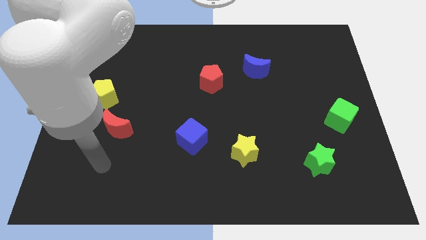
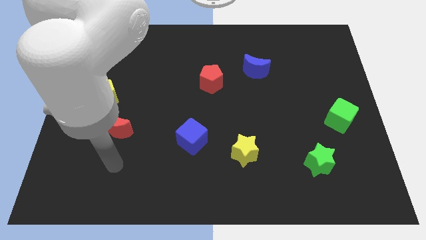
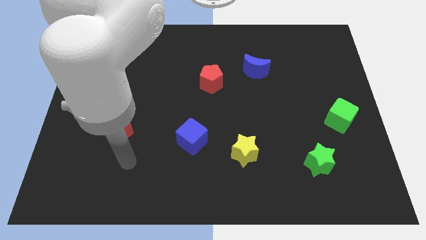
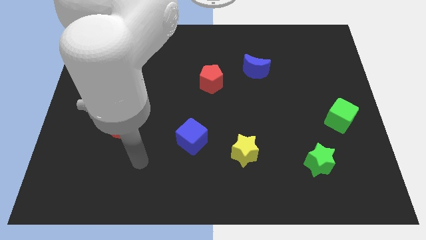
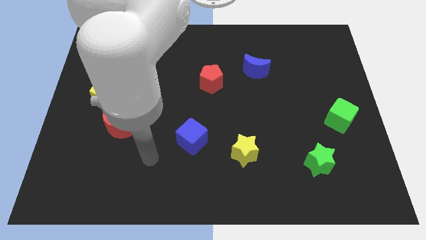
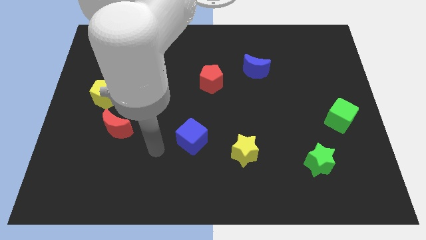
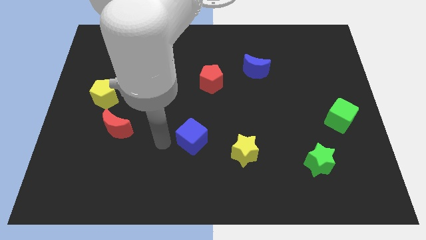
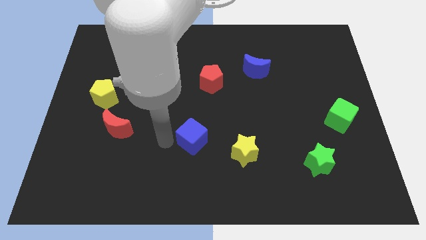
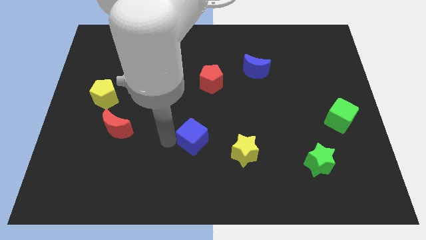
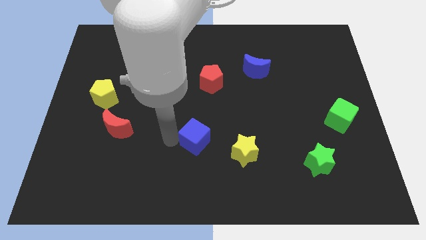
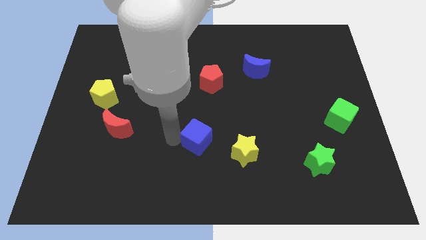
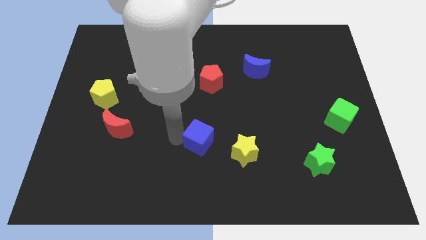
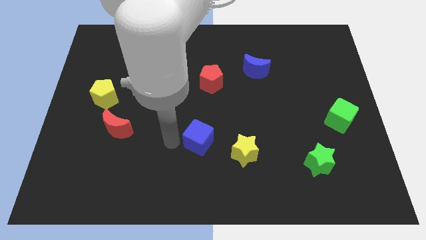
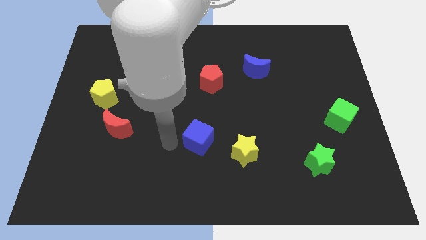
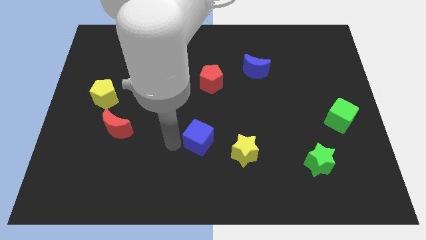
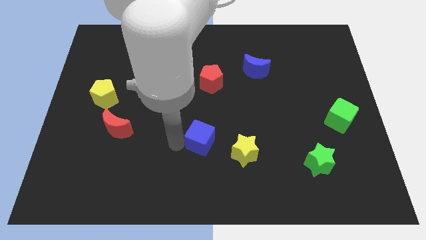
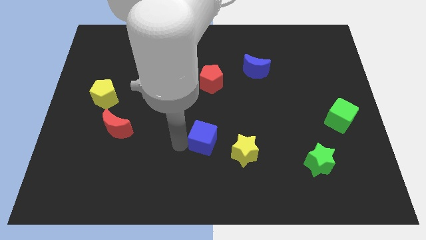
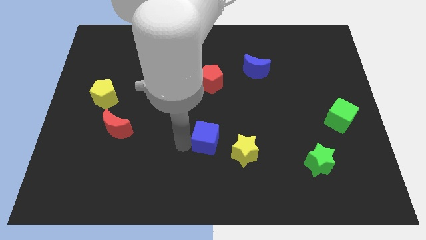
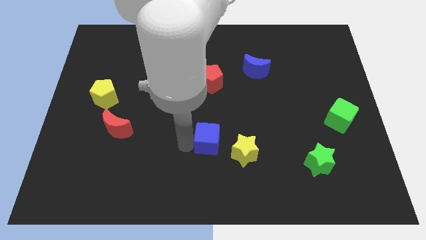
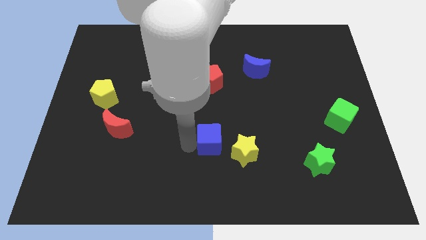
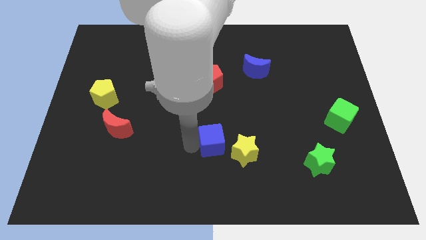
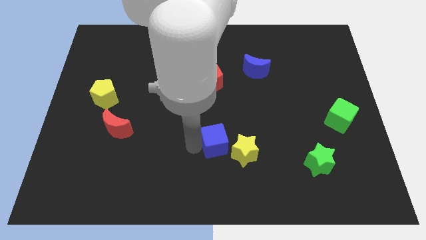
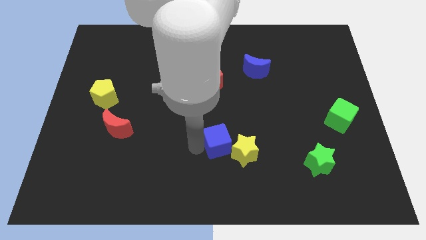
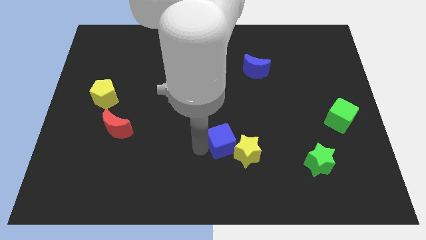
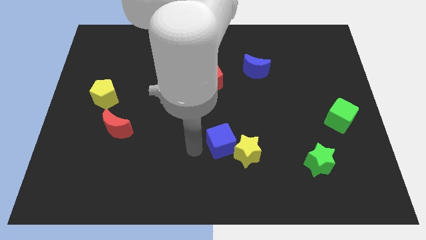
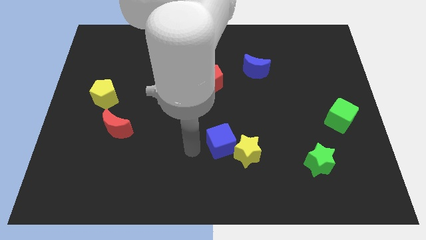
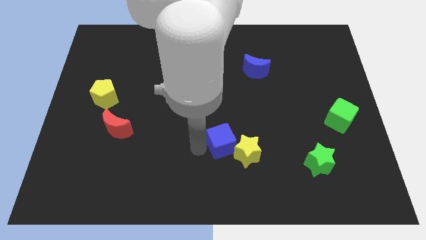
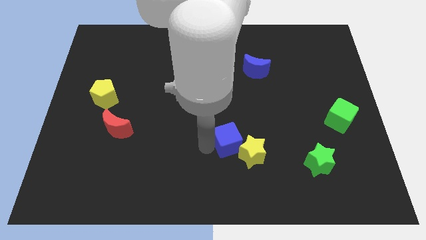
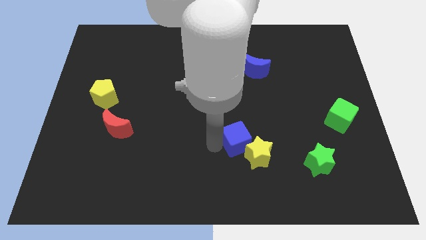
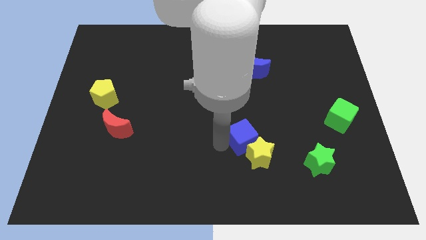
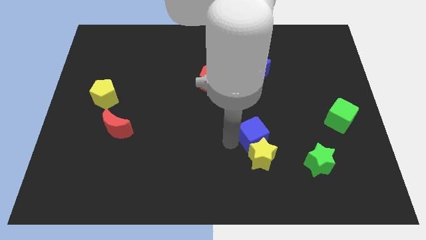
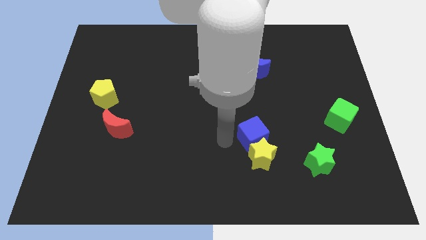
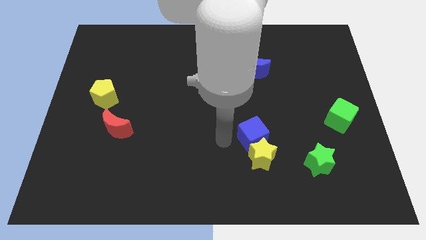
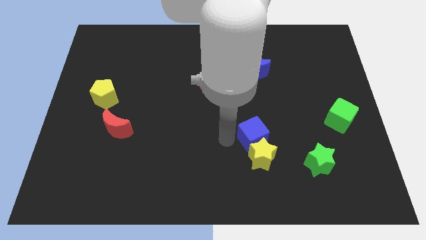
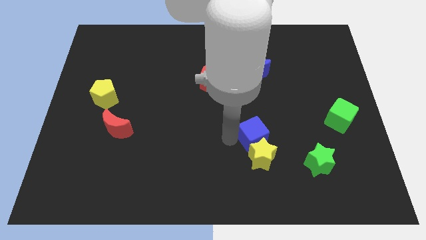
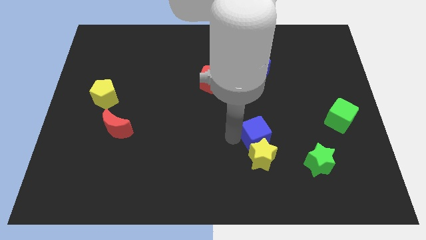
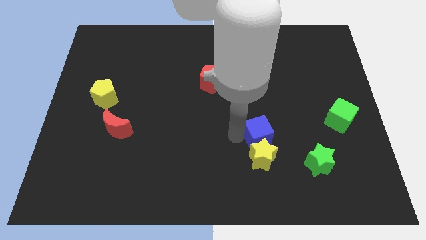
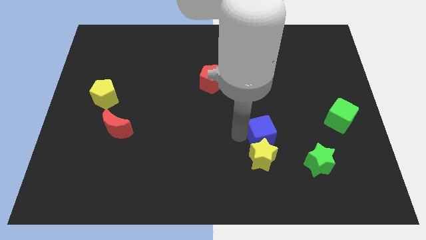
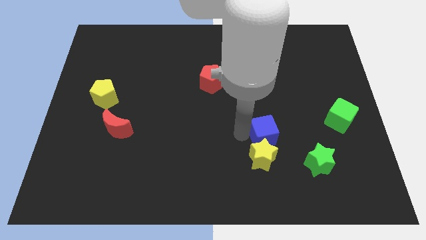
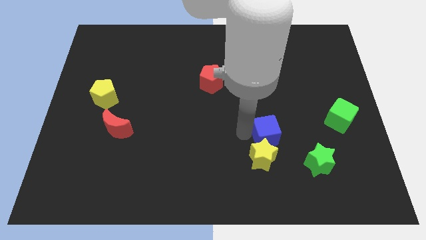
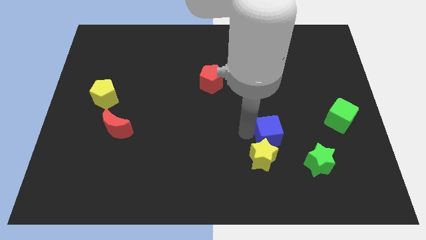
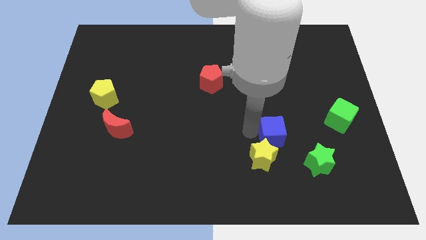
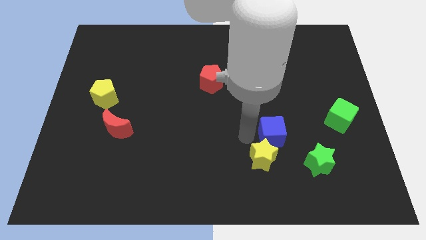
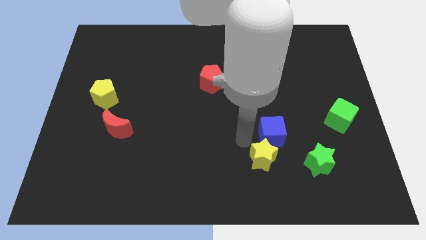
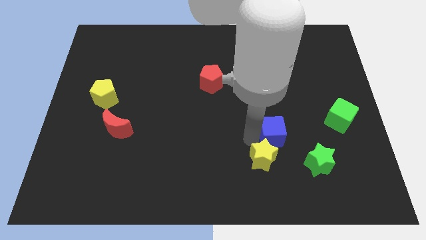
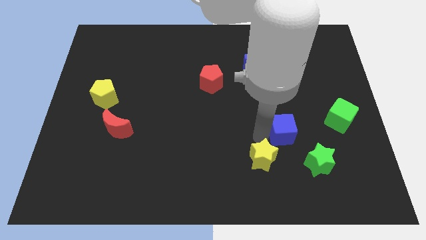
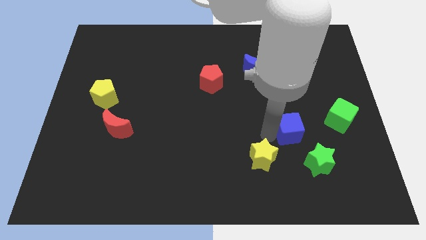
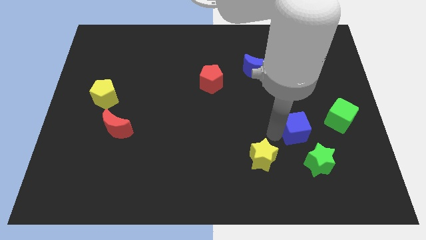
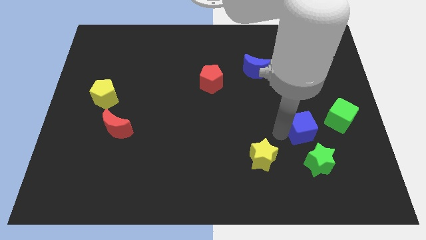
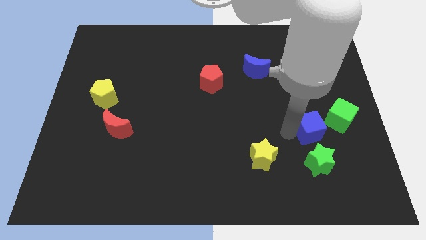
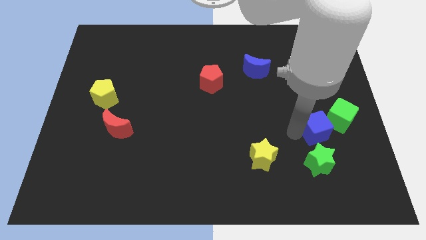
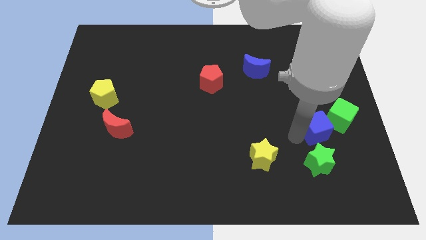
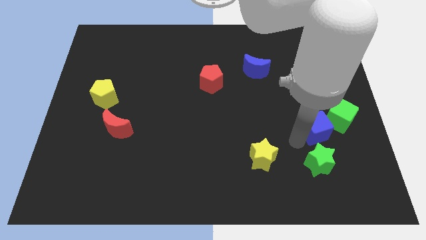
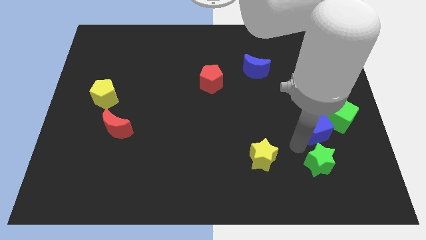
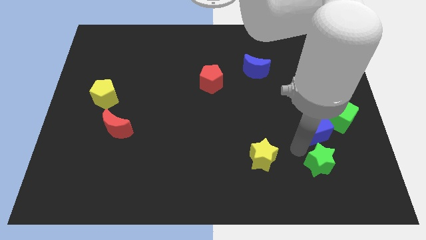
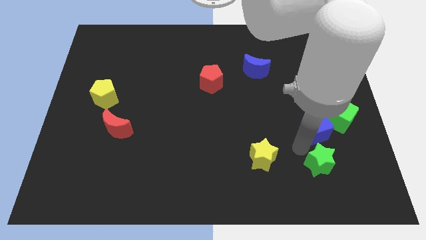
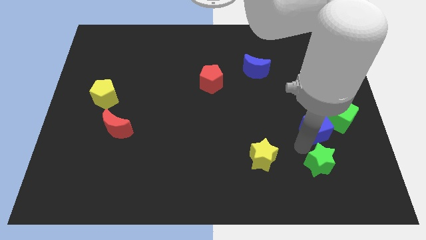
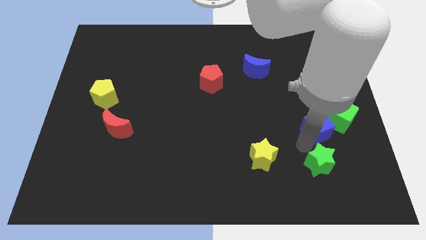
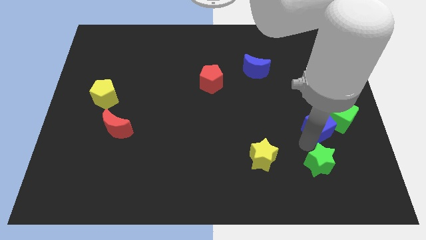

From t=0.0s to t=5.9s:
put the blue cube next to the green cube

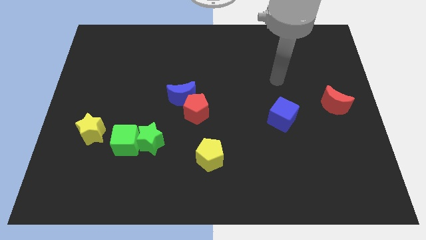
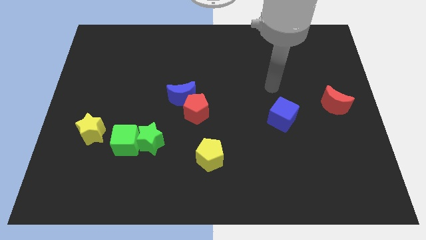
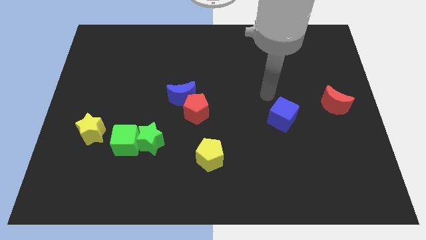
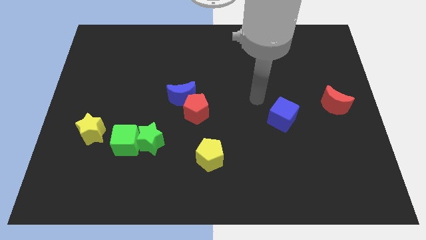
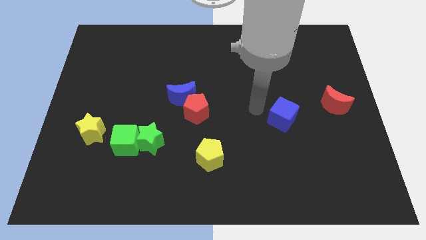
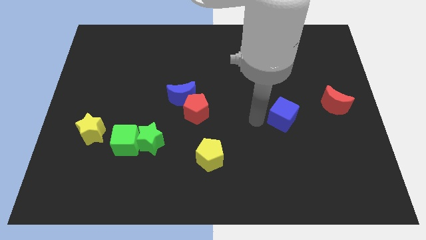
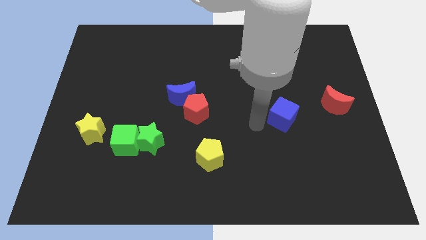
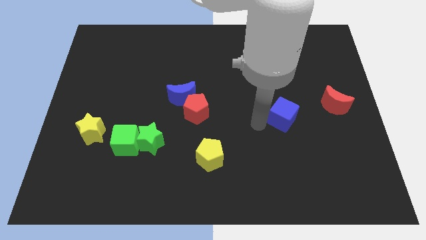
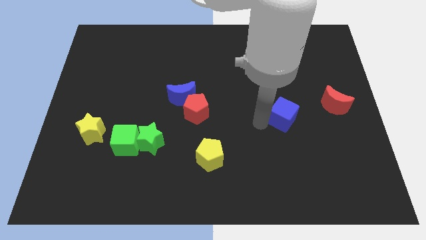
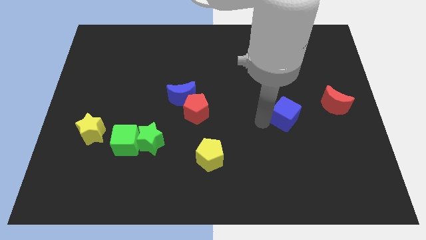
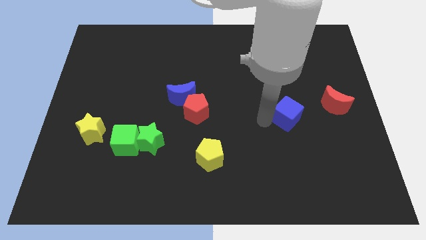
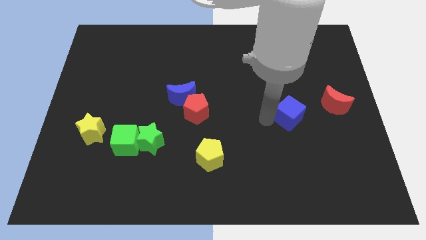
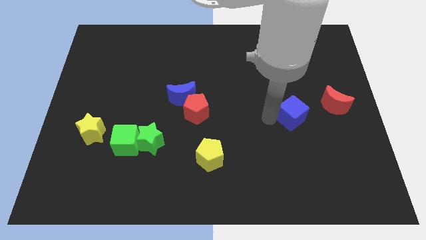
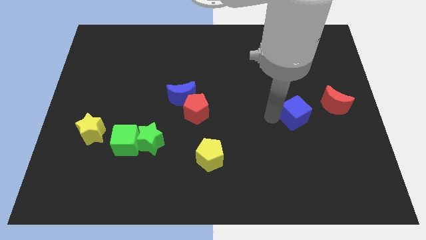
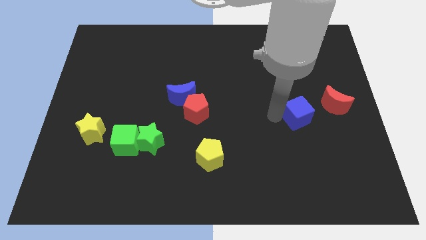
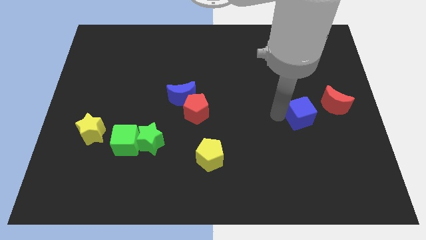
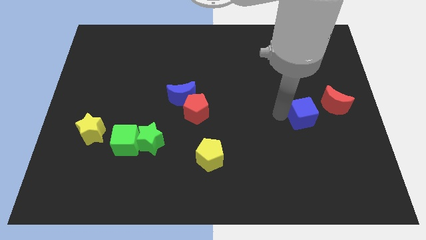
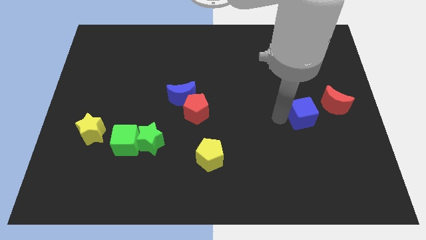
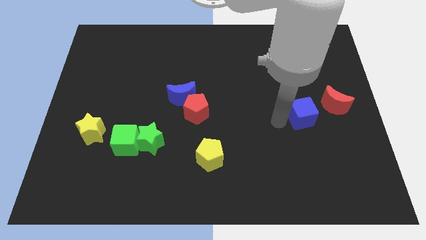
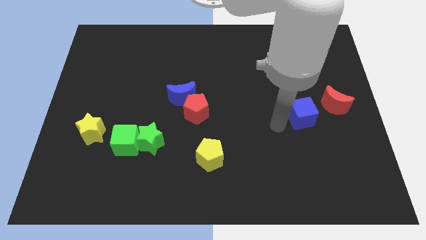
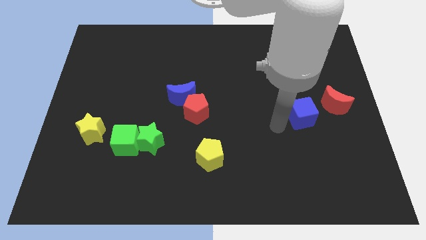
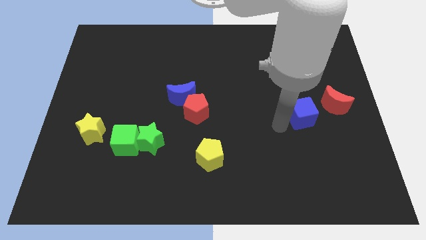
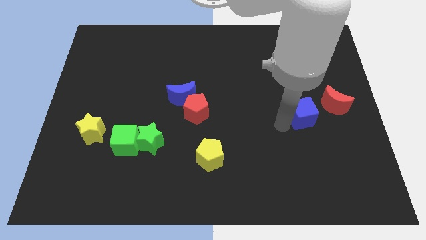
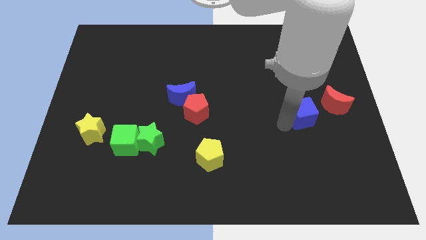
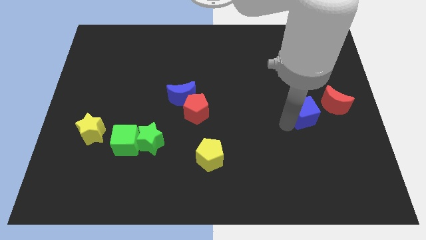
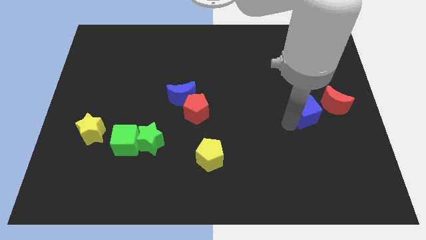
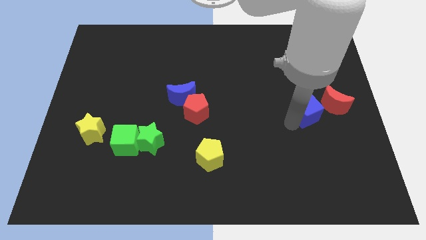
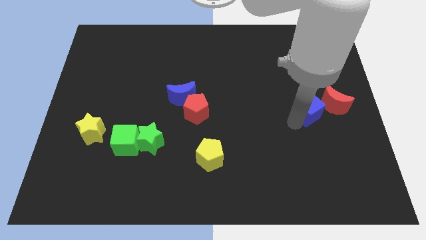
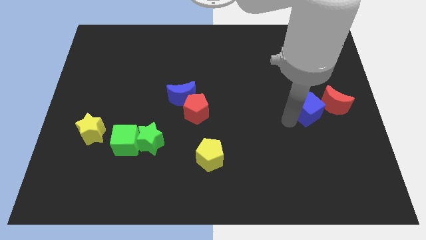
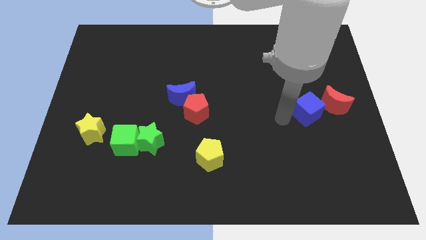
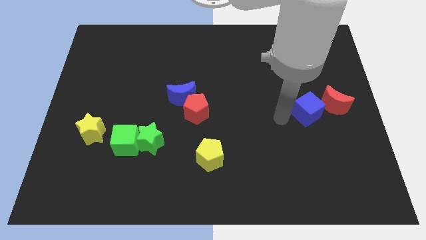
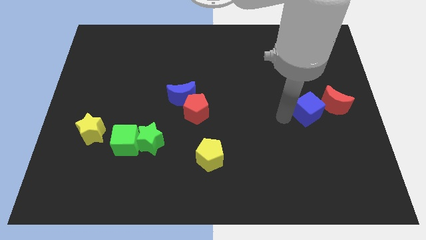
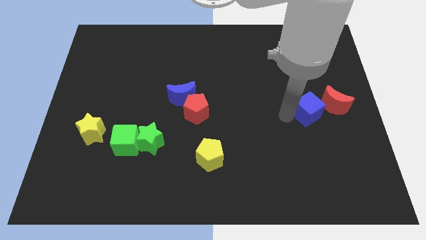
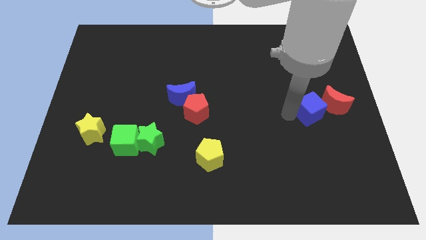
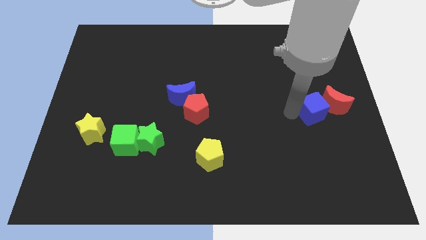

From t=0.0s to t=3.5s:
push the blue cube next to the red moon
